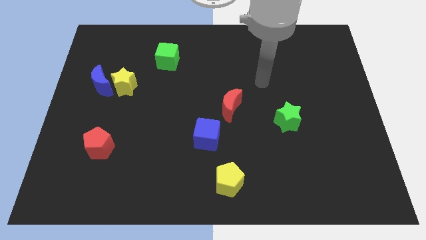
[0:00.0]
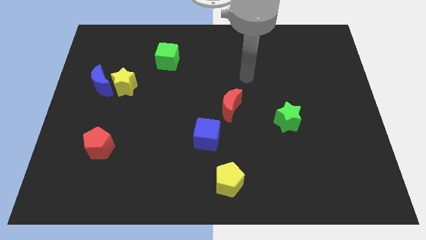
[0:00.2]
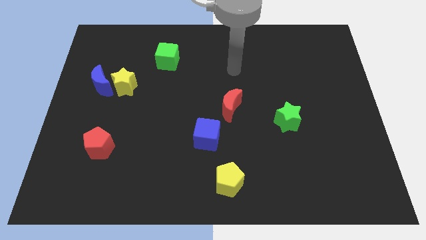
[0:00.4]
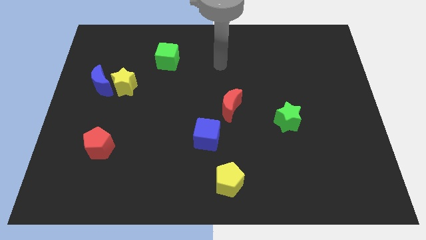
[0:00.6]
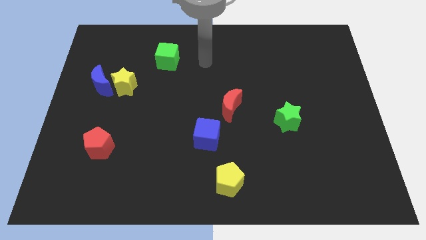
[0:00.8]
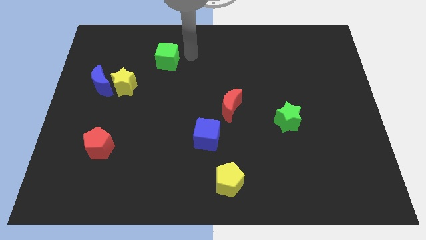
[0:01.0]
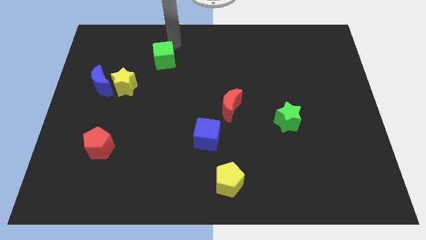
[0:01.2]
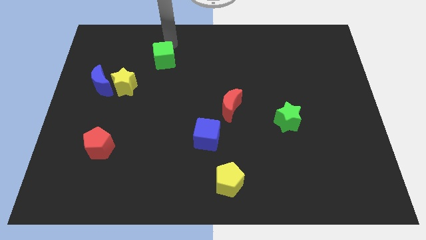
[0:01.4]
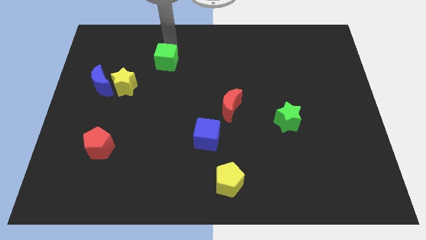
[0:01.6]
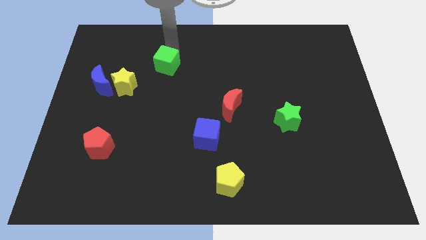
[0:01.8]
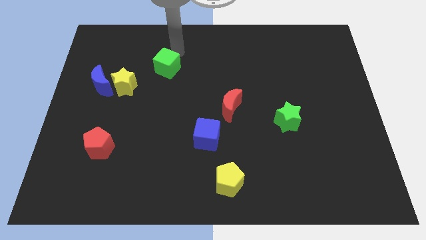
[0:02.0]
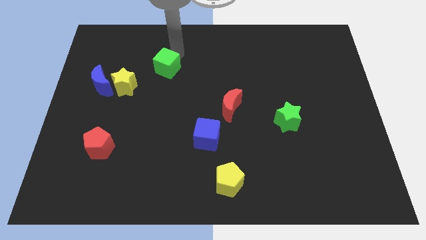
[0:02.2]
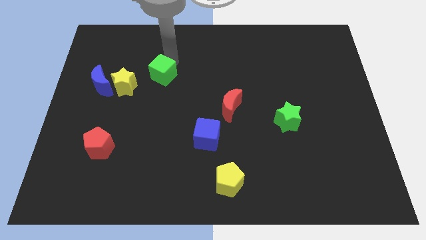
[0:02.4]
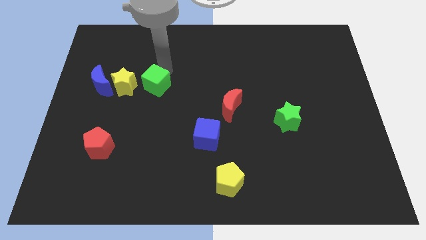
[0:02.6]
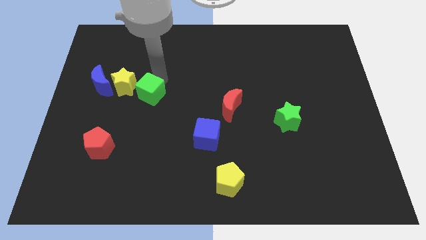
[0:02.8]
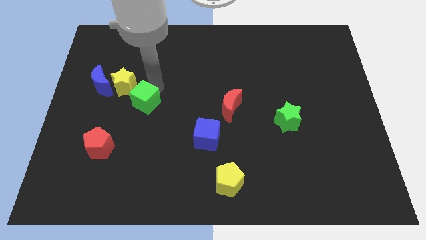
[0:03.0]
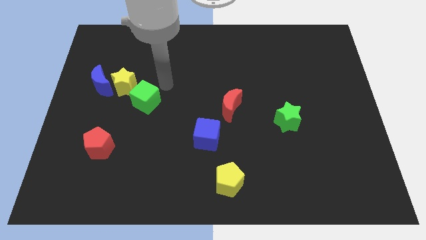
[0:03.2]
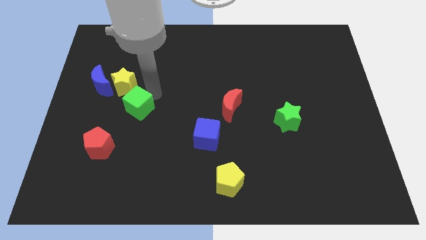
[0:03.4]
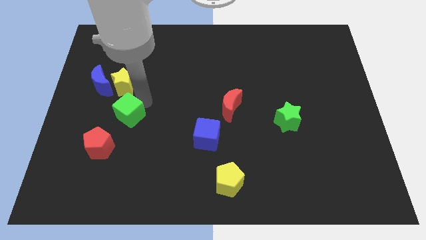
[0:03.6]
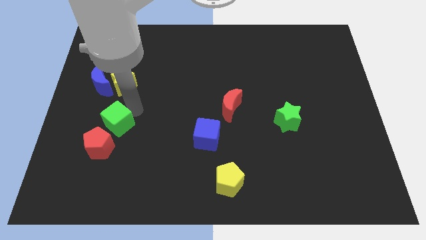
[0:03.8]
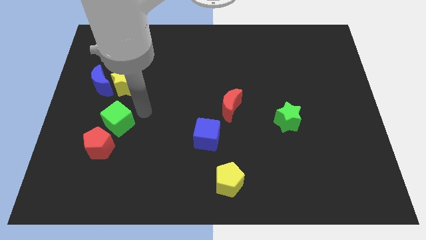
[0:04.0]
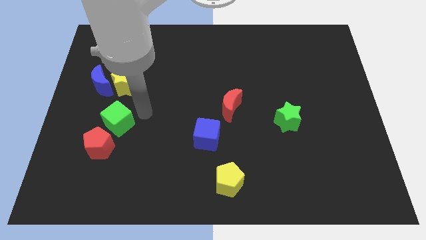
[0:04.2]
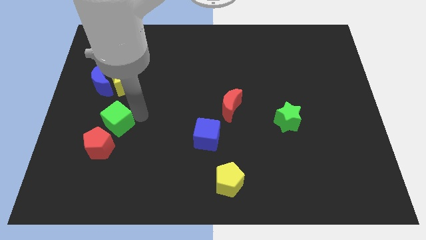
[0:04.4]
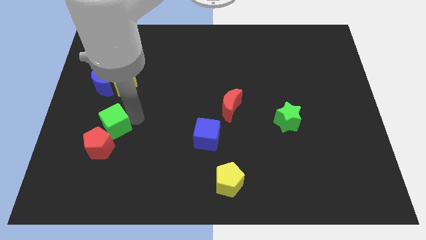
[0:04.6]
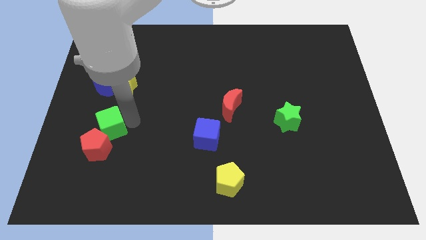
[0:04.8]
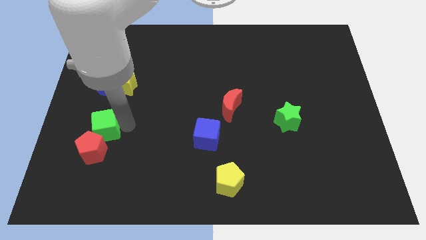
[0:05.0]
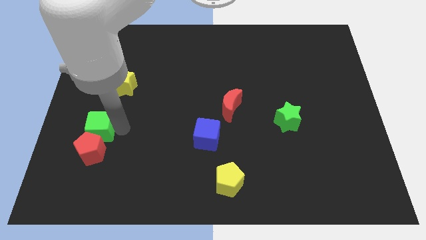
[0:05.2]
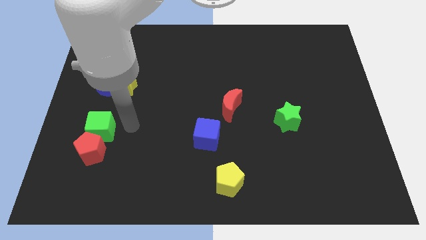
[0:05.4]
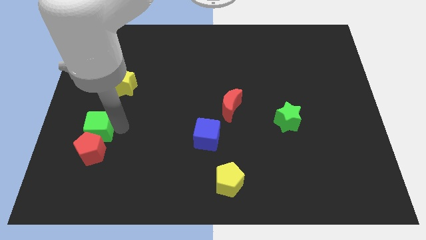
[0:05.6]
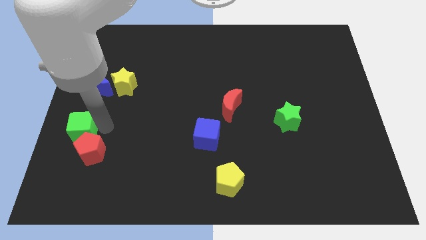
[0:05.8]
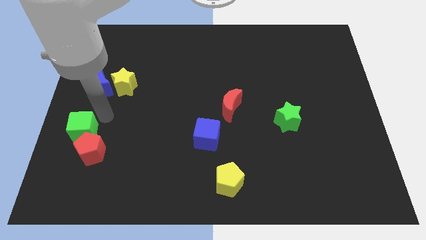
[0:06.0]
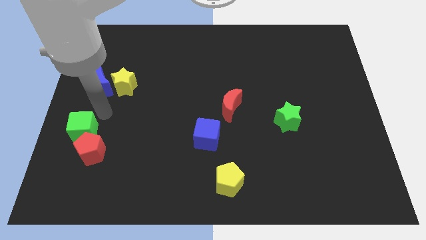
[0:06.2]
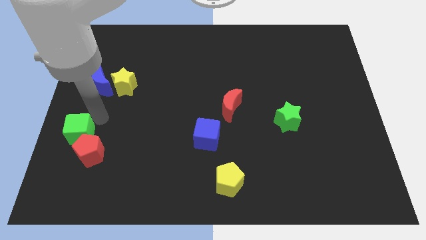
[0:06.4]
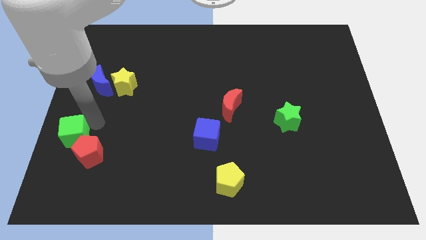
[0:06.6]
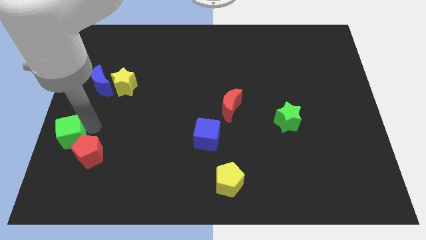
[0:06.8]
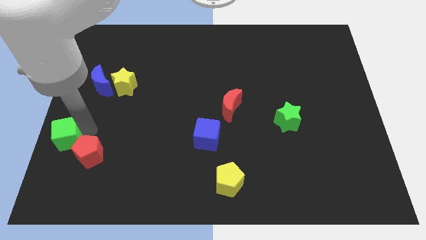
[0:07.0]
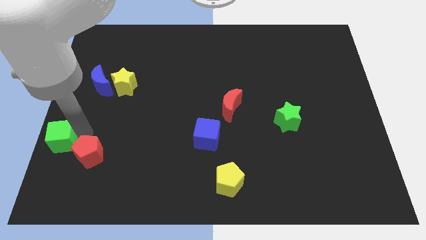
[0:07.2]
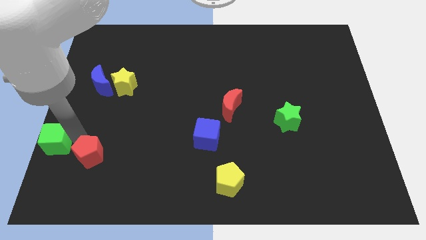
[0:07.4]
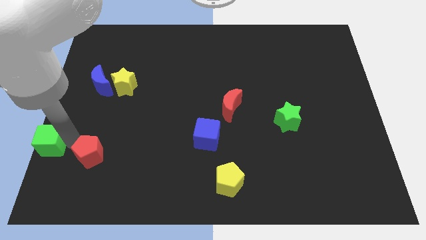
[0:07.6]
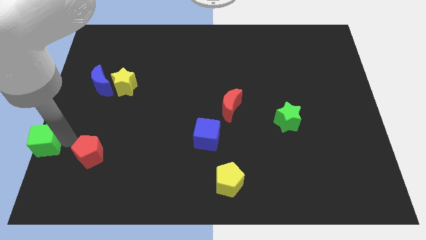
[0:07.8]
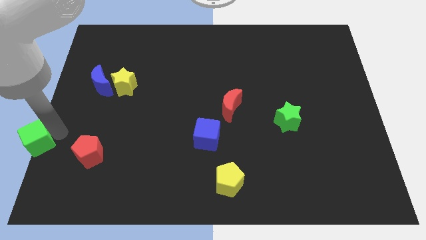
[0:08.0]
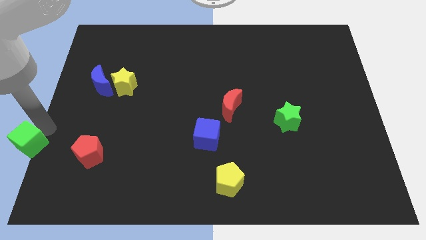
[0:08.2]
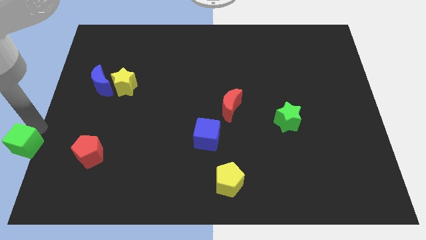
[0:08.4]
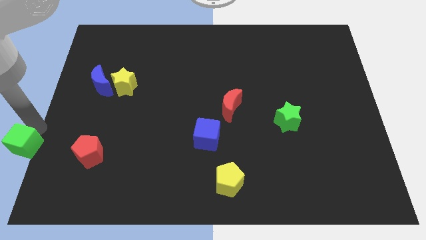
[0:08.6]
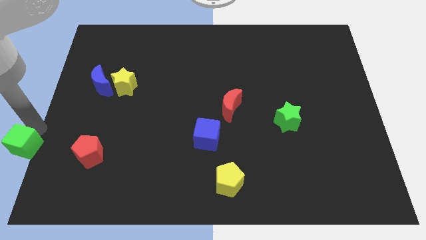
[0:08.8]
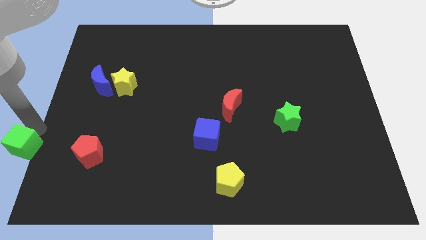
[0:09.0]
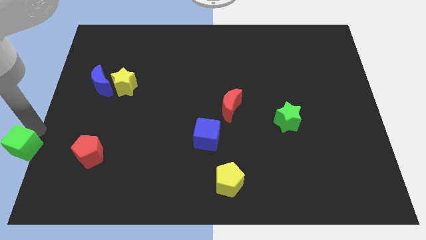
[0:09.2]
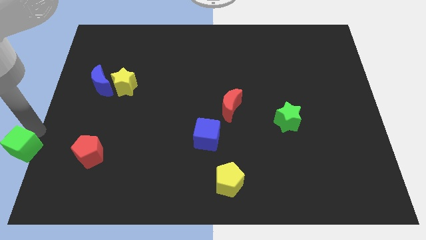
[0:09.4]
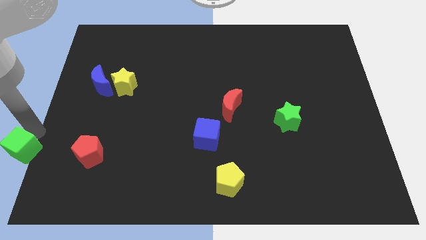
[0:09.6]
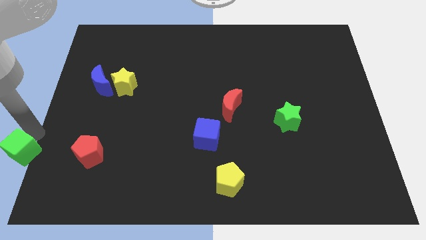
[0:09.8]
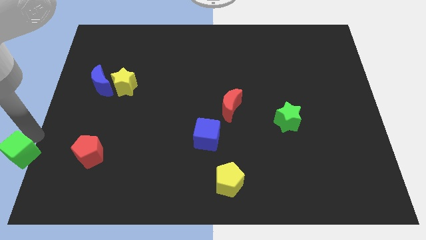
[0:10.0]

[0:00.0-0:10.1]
move the green cube to the bottom left
